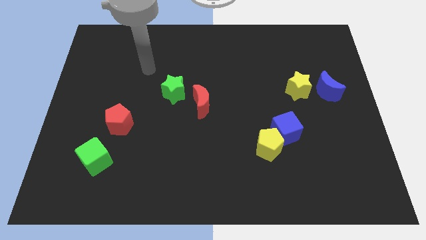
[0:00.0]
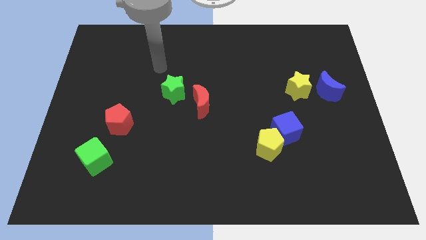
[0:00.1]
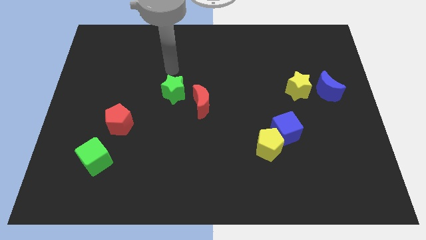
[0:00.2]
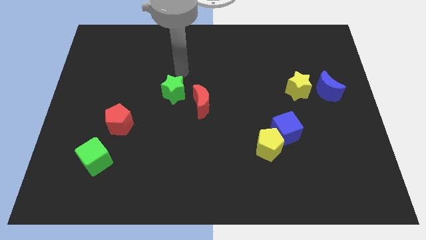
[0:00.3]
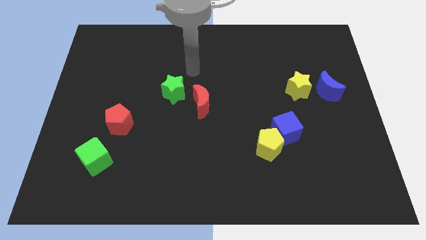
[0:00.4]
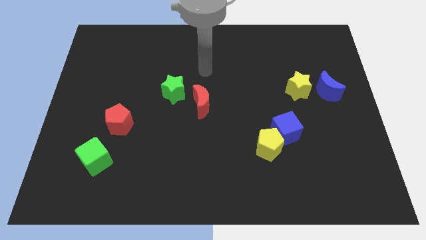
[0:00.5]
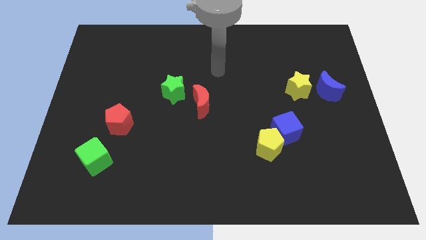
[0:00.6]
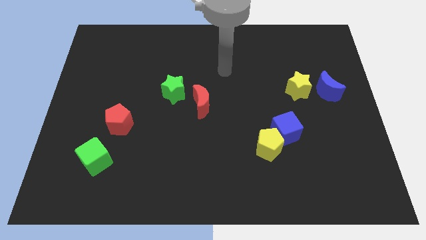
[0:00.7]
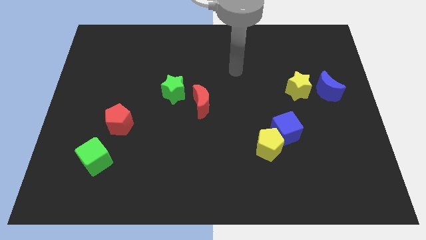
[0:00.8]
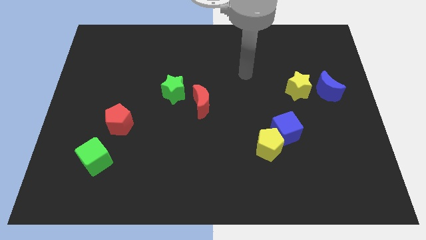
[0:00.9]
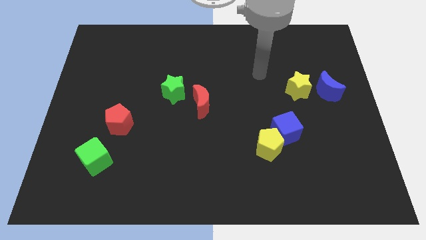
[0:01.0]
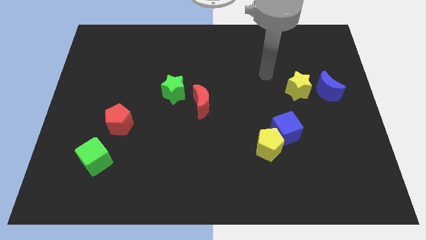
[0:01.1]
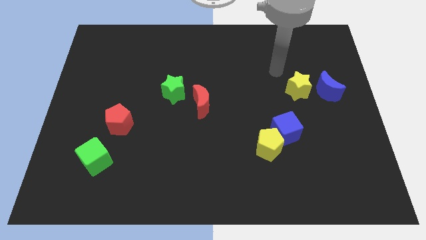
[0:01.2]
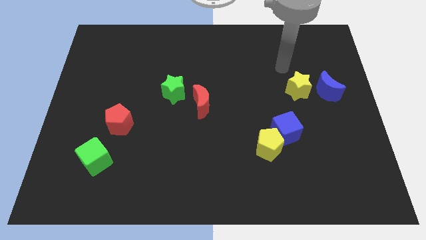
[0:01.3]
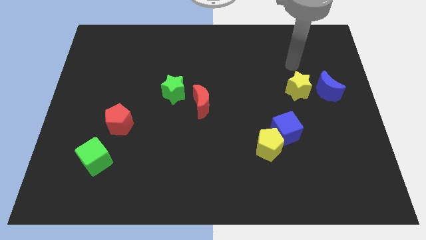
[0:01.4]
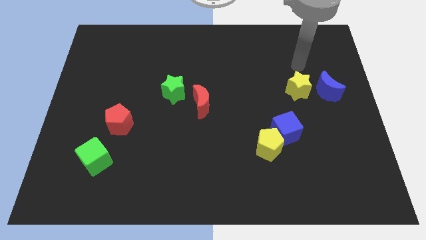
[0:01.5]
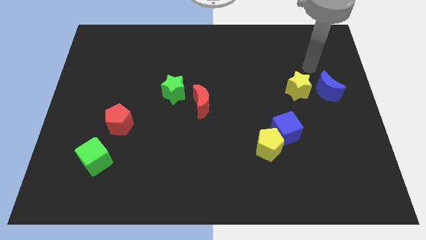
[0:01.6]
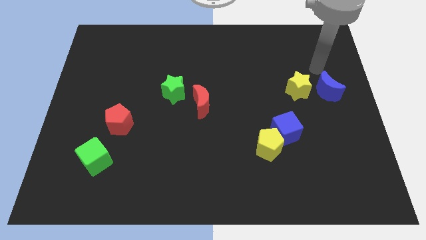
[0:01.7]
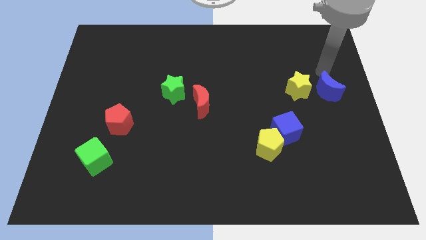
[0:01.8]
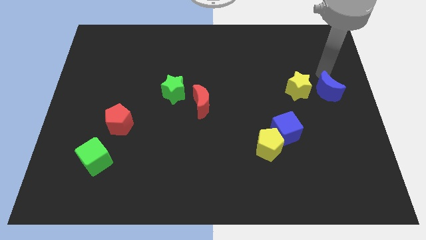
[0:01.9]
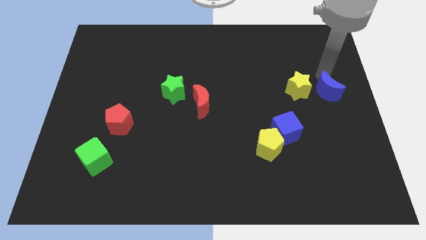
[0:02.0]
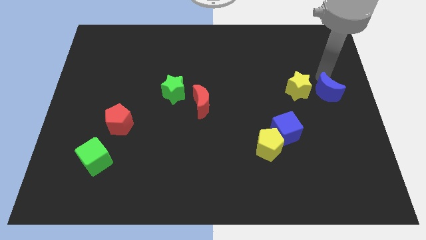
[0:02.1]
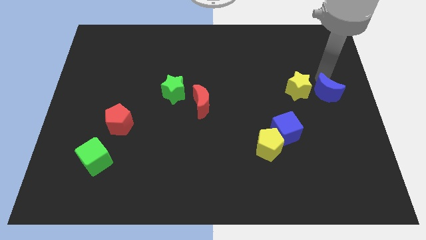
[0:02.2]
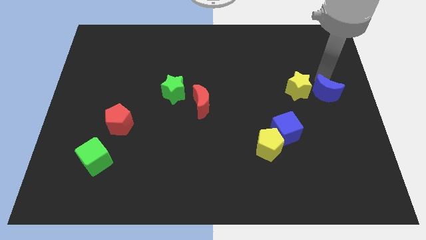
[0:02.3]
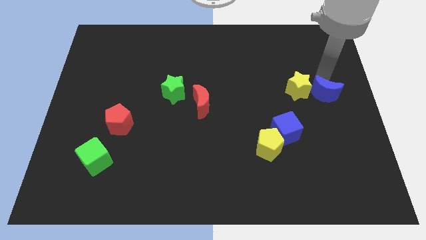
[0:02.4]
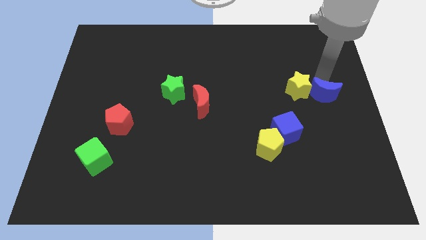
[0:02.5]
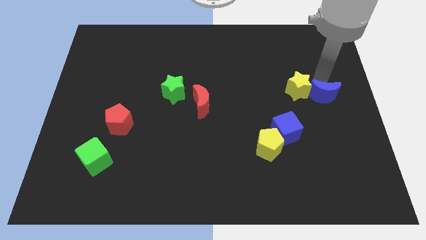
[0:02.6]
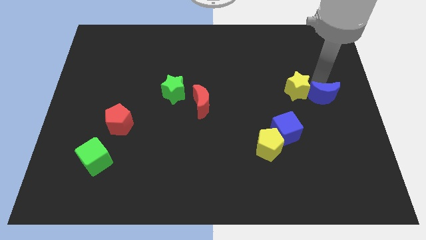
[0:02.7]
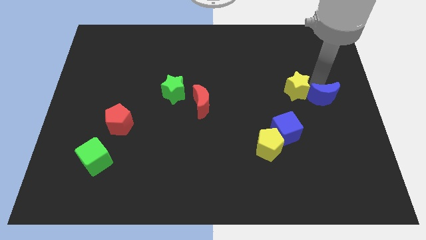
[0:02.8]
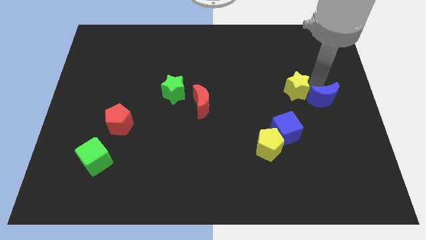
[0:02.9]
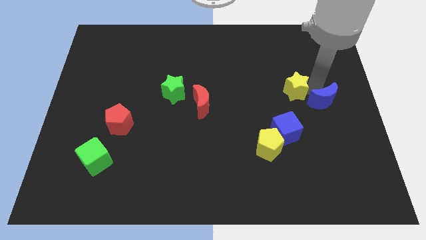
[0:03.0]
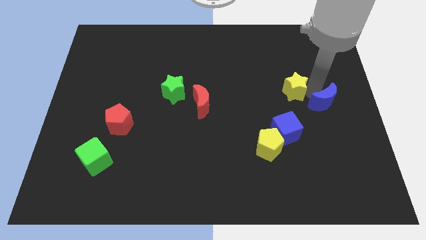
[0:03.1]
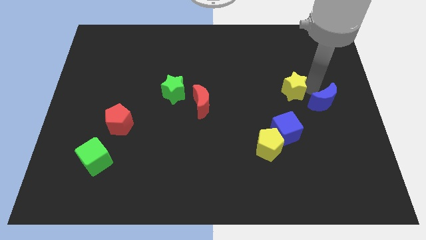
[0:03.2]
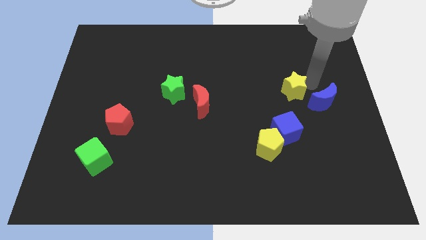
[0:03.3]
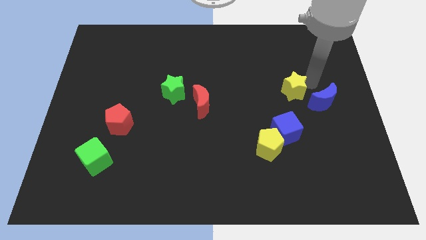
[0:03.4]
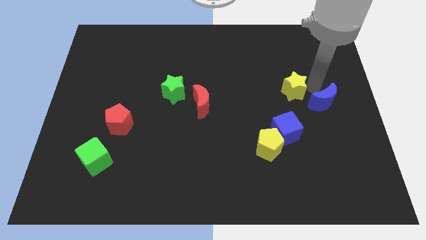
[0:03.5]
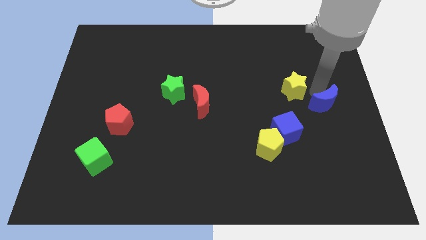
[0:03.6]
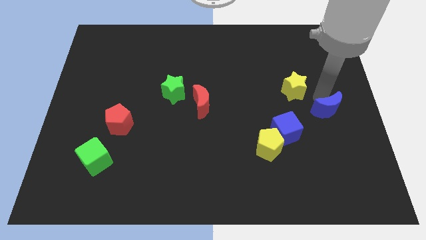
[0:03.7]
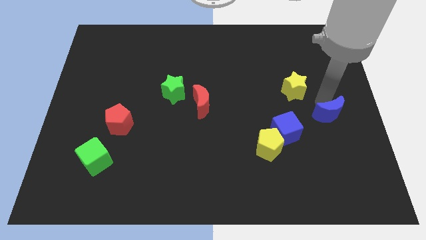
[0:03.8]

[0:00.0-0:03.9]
move the blue moon somewhat down

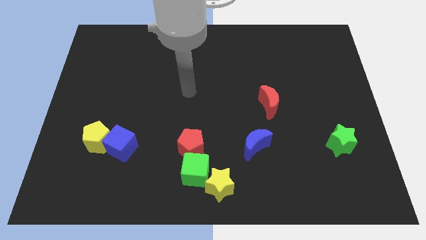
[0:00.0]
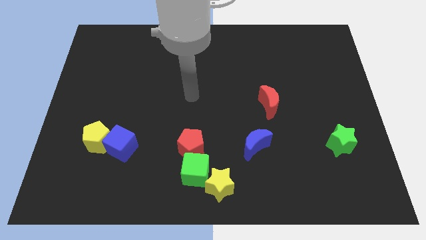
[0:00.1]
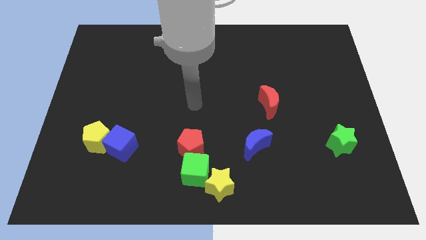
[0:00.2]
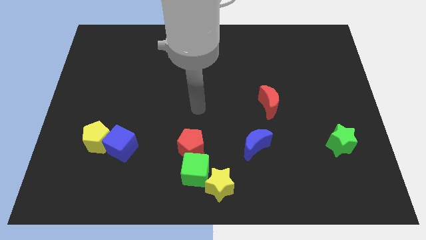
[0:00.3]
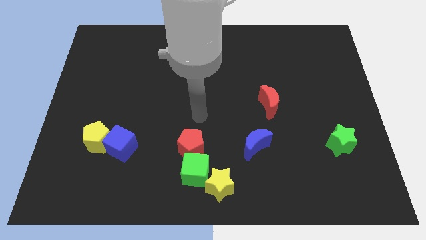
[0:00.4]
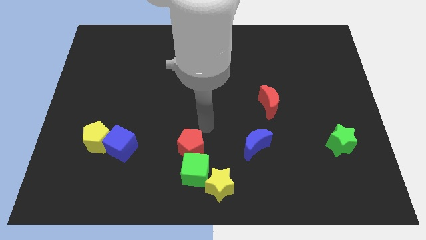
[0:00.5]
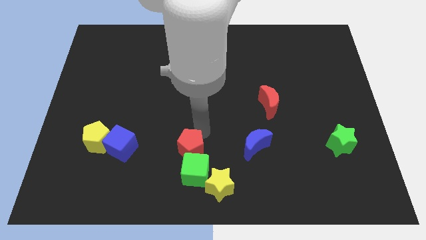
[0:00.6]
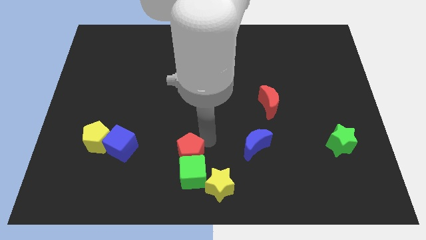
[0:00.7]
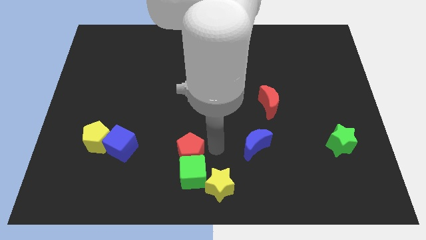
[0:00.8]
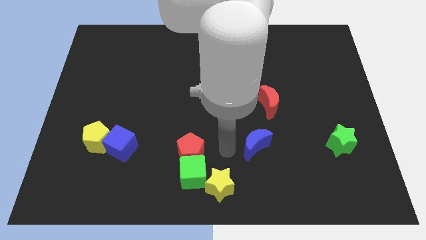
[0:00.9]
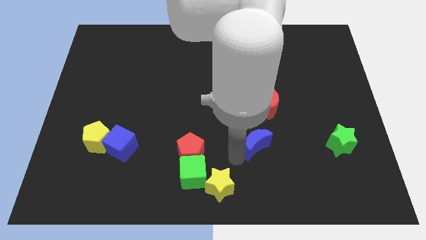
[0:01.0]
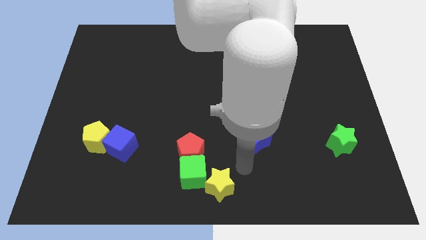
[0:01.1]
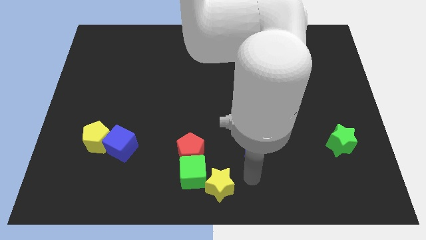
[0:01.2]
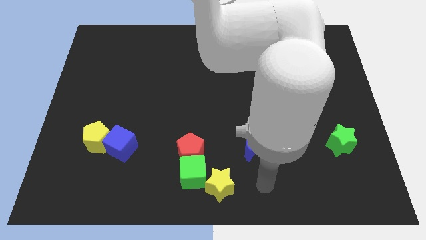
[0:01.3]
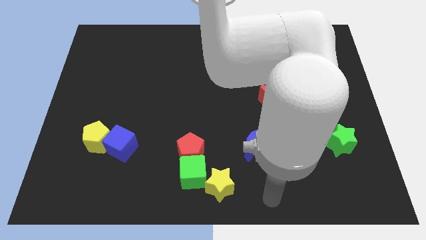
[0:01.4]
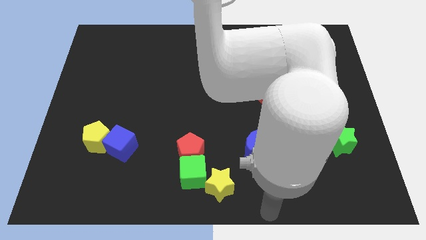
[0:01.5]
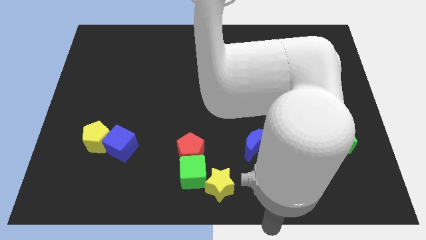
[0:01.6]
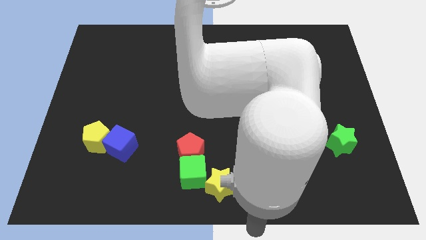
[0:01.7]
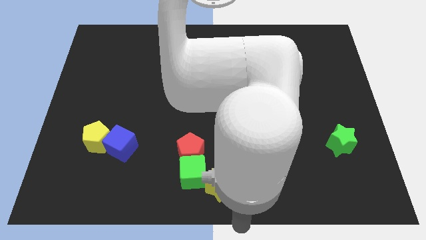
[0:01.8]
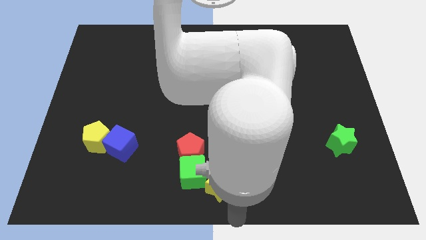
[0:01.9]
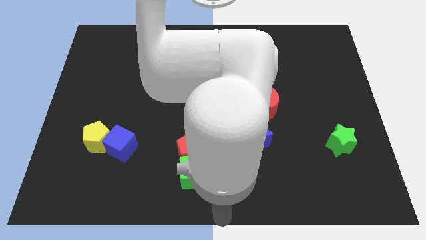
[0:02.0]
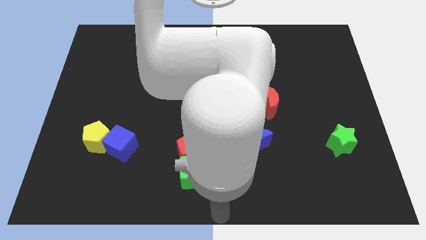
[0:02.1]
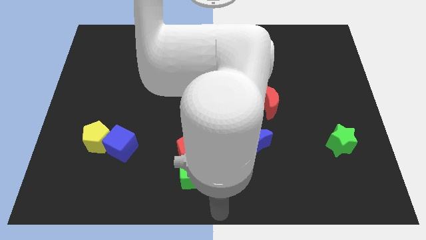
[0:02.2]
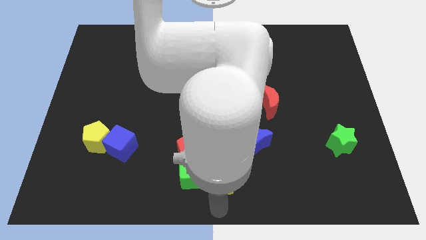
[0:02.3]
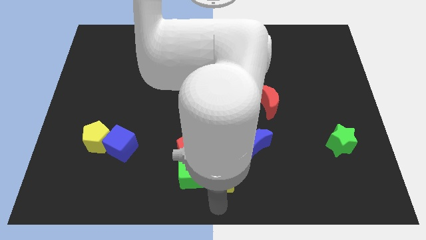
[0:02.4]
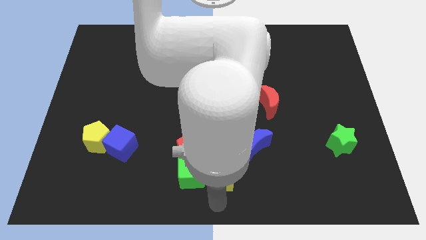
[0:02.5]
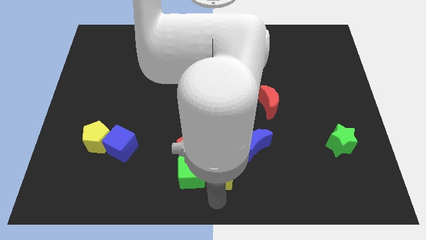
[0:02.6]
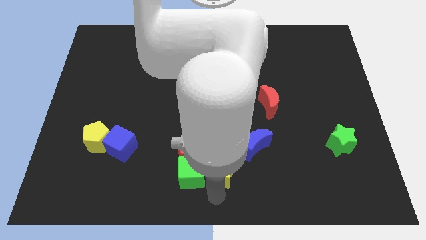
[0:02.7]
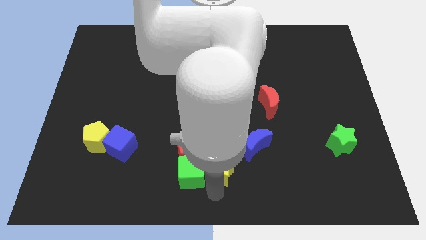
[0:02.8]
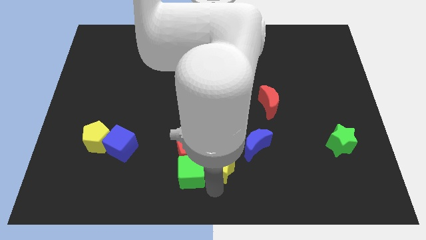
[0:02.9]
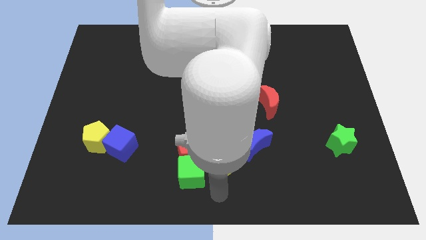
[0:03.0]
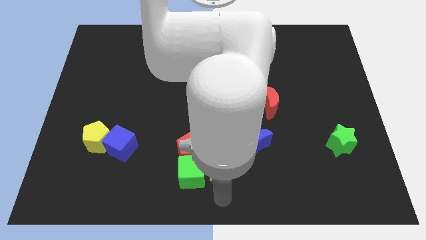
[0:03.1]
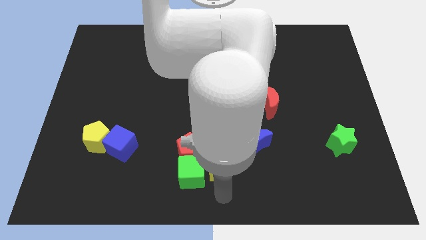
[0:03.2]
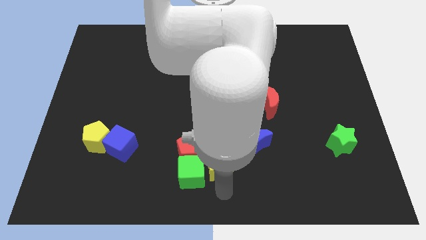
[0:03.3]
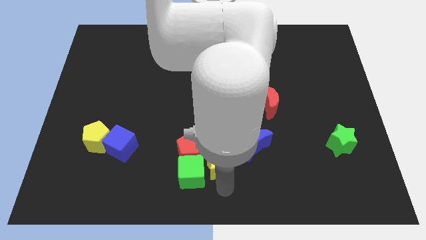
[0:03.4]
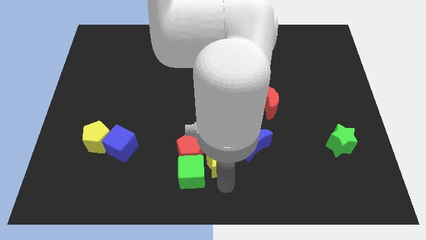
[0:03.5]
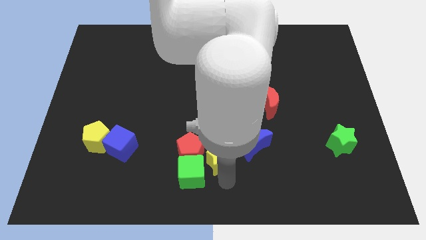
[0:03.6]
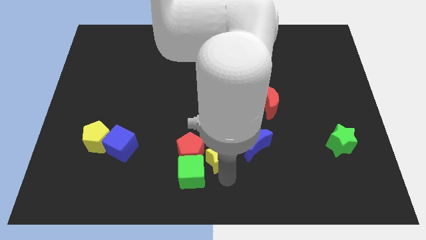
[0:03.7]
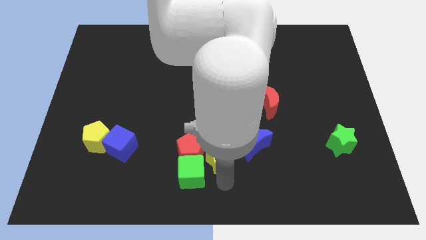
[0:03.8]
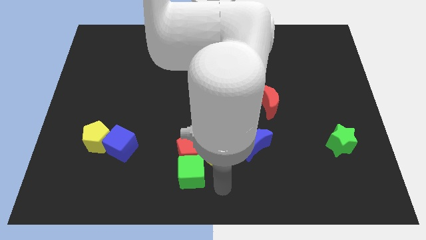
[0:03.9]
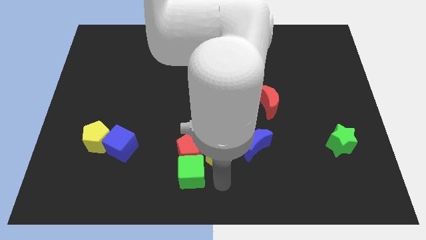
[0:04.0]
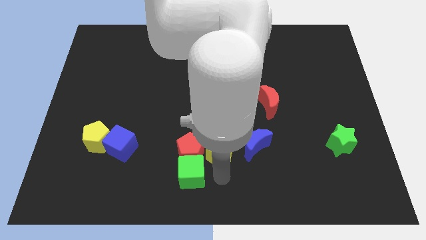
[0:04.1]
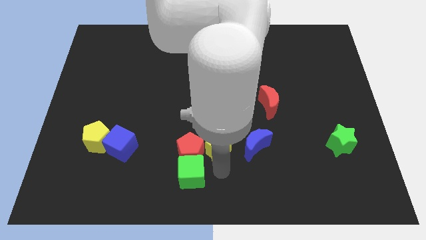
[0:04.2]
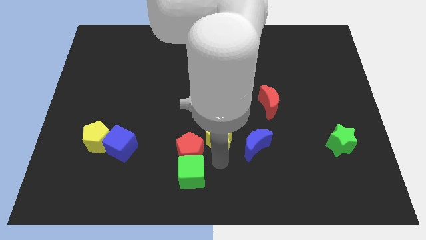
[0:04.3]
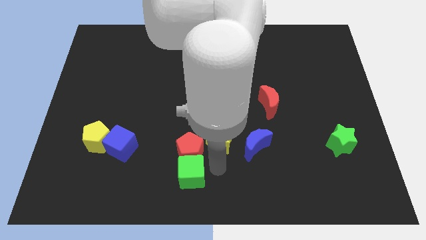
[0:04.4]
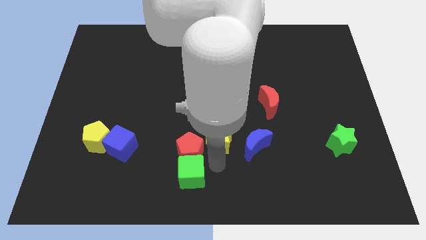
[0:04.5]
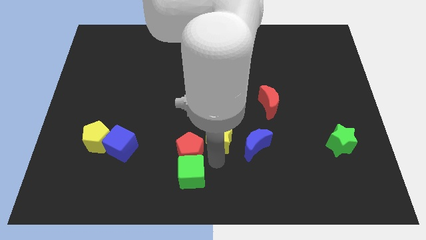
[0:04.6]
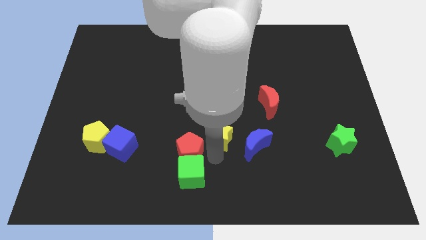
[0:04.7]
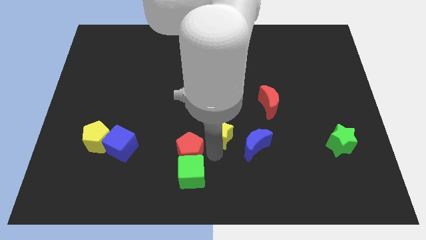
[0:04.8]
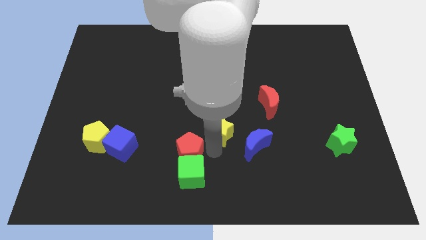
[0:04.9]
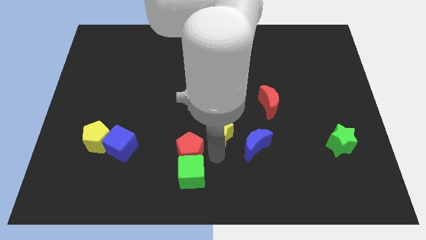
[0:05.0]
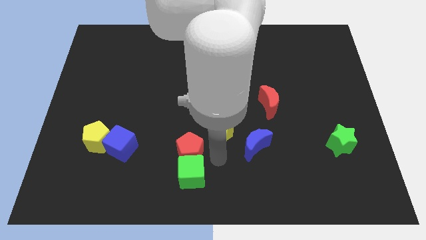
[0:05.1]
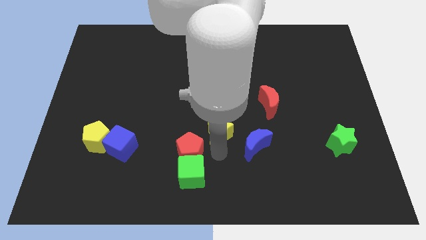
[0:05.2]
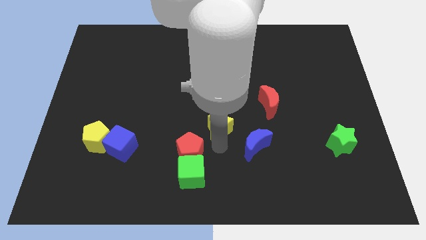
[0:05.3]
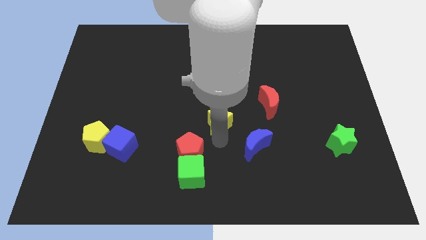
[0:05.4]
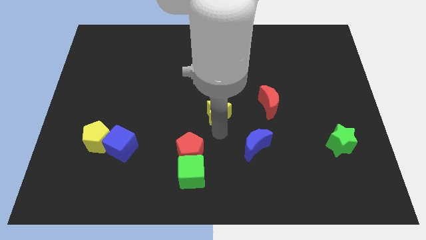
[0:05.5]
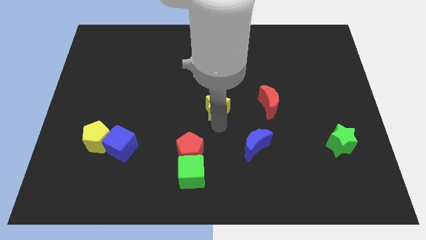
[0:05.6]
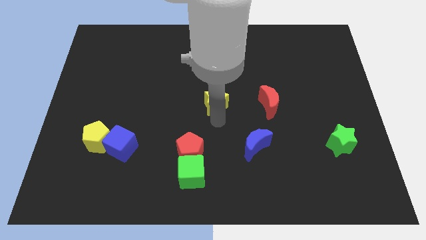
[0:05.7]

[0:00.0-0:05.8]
push the yellow star up
